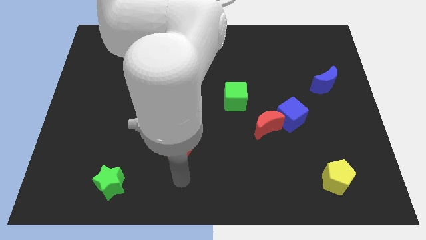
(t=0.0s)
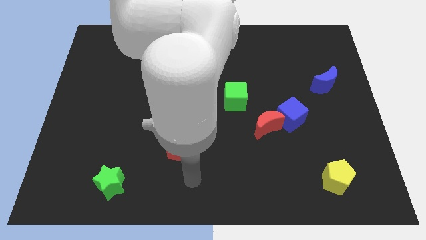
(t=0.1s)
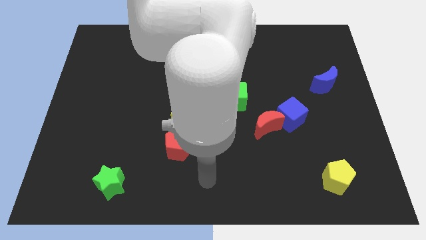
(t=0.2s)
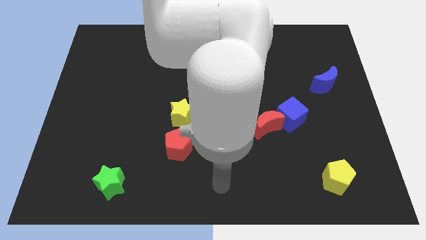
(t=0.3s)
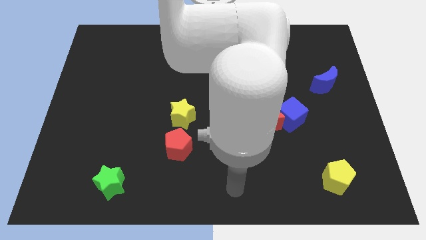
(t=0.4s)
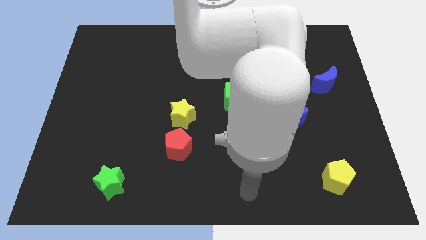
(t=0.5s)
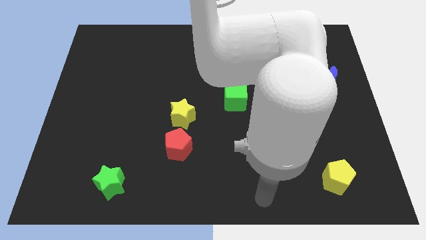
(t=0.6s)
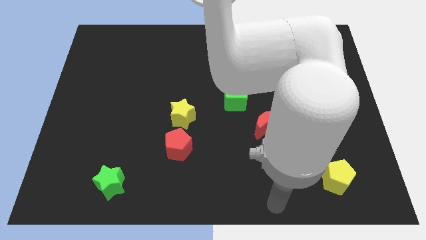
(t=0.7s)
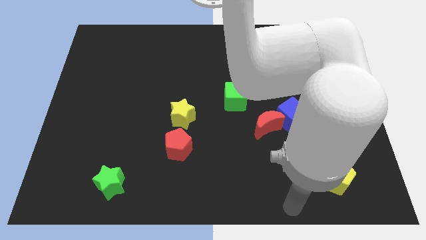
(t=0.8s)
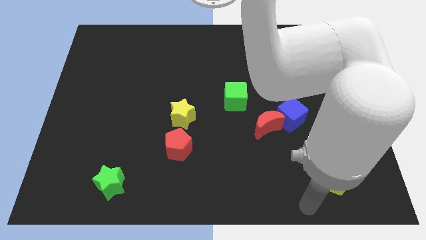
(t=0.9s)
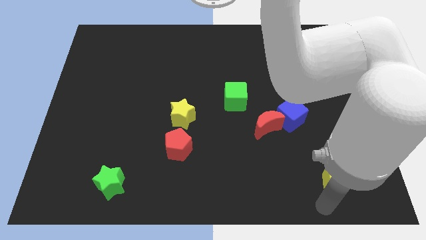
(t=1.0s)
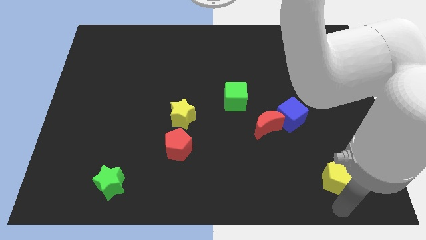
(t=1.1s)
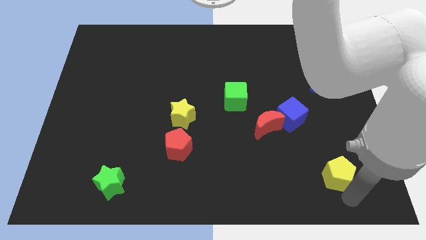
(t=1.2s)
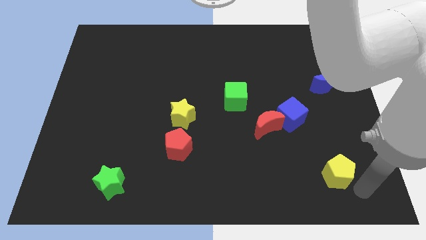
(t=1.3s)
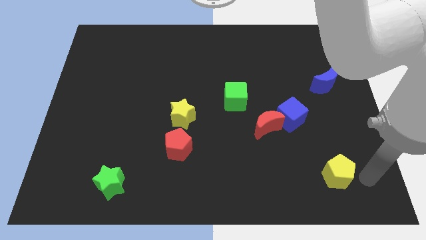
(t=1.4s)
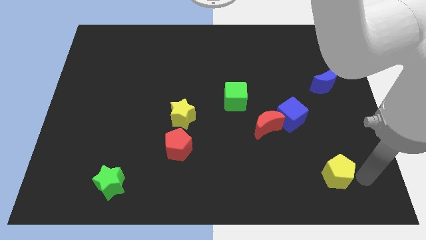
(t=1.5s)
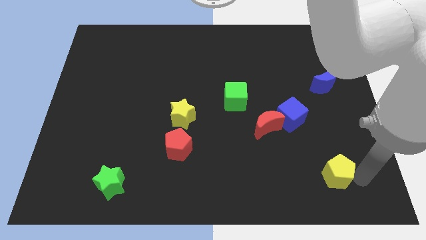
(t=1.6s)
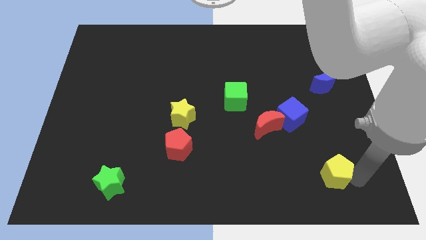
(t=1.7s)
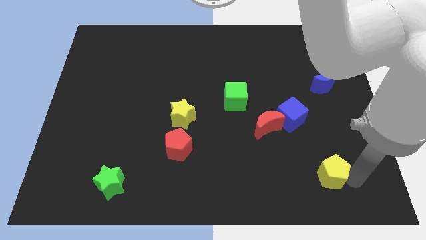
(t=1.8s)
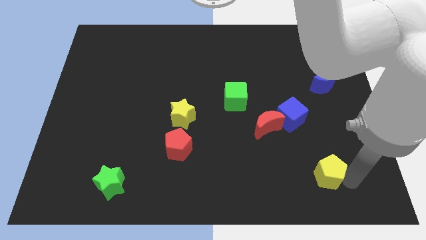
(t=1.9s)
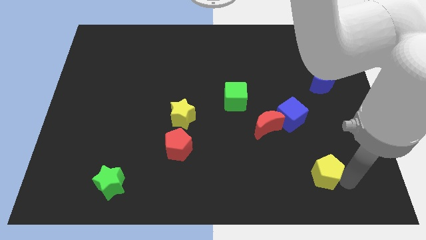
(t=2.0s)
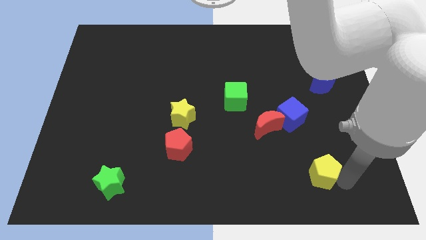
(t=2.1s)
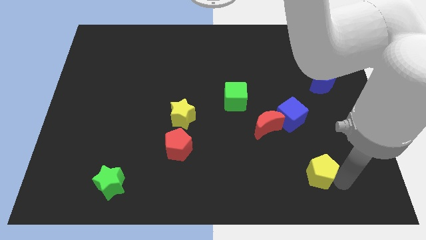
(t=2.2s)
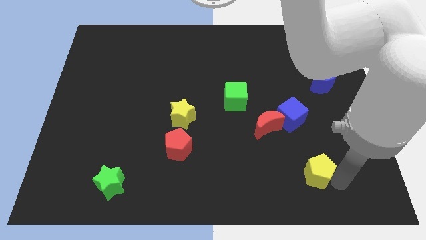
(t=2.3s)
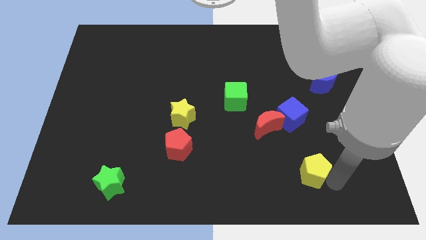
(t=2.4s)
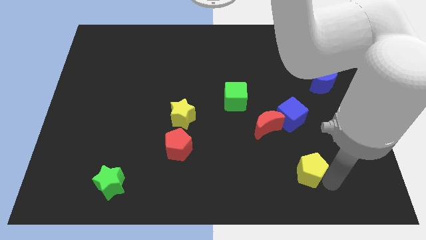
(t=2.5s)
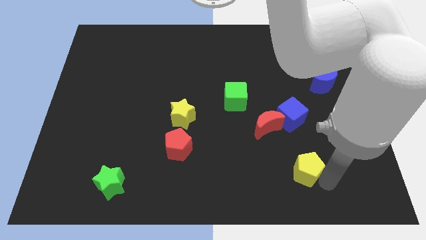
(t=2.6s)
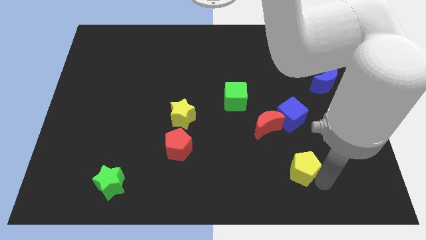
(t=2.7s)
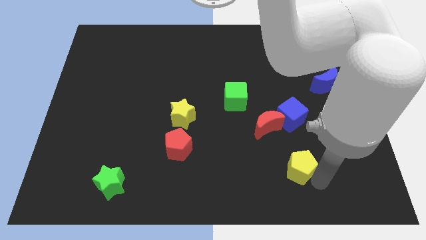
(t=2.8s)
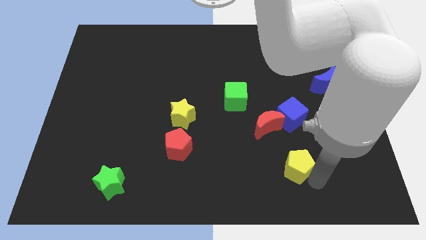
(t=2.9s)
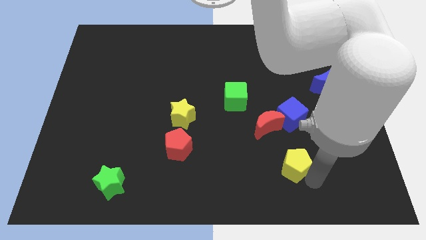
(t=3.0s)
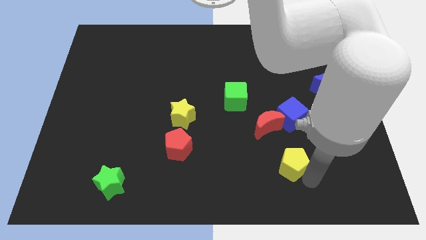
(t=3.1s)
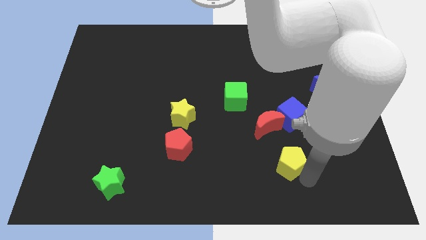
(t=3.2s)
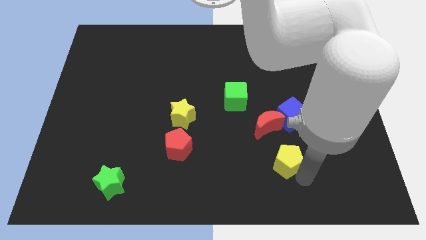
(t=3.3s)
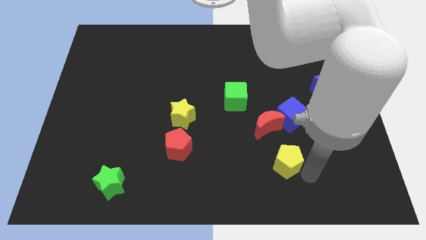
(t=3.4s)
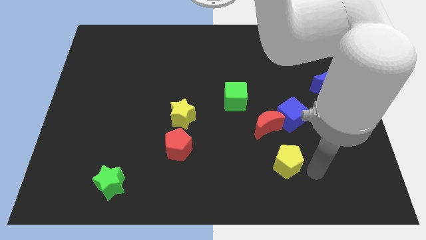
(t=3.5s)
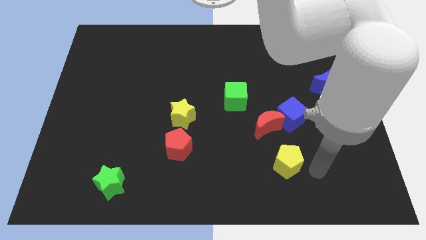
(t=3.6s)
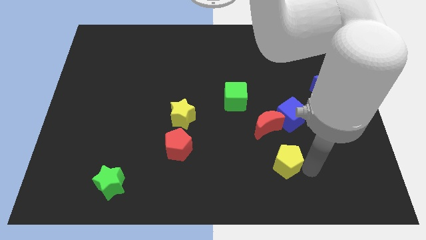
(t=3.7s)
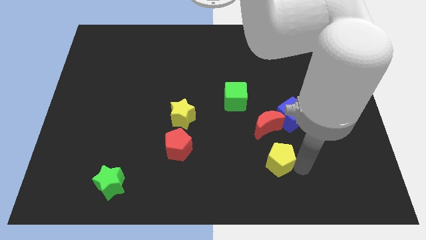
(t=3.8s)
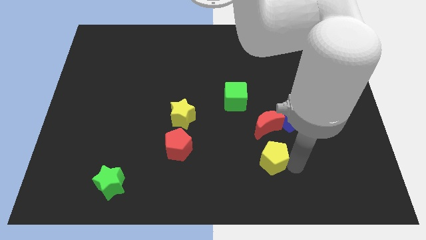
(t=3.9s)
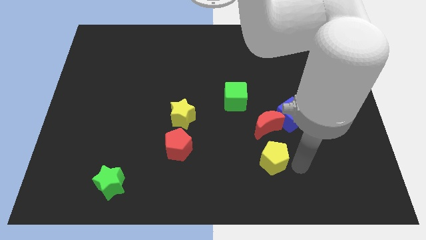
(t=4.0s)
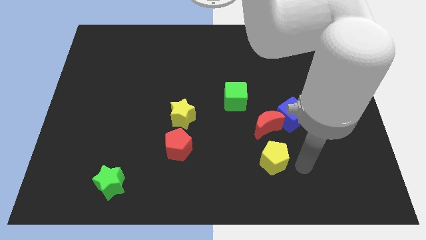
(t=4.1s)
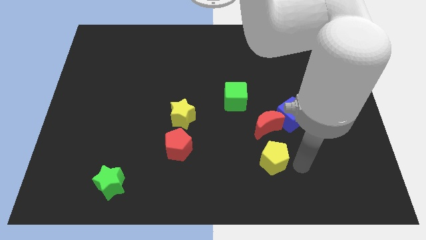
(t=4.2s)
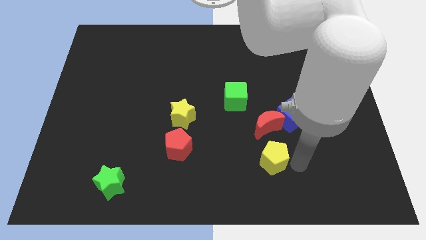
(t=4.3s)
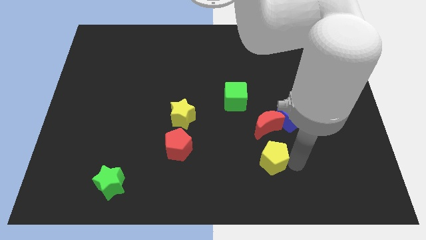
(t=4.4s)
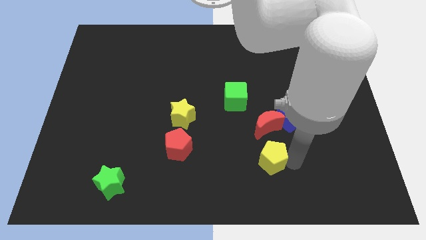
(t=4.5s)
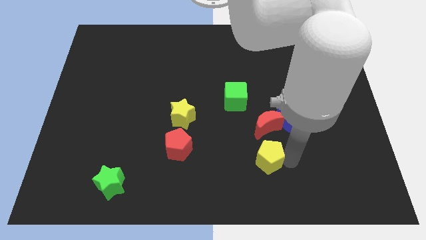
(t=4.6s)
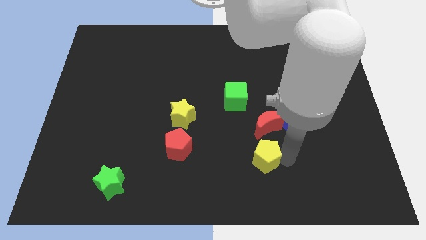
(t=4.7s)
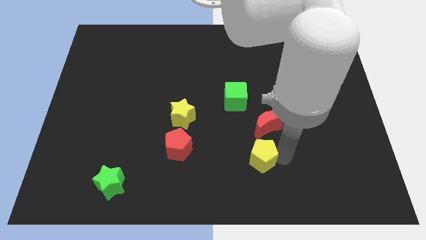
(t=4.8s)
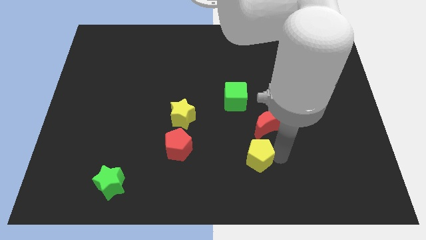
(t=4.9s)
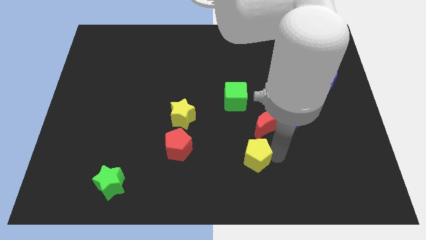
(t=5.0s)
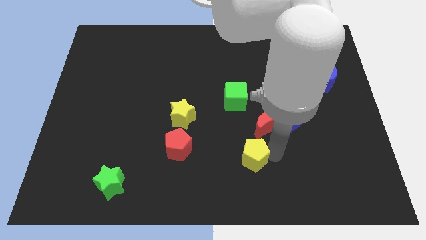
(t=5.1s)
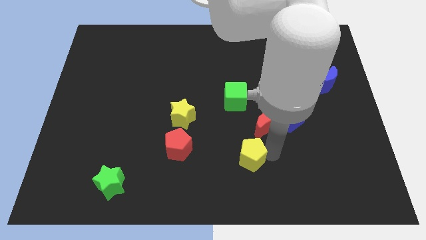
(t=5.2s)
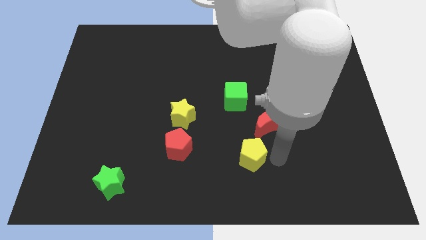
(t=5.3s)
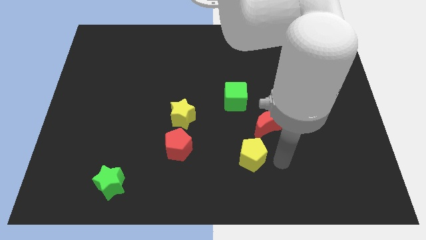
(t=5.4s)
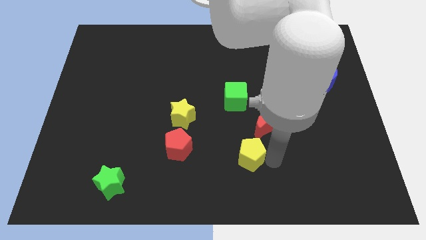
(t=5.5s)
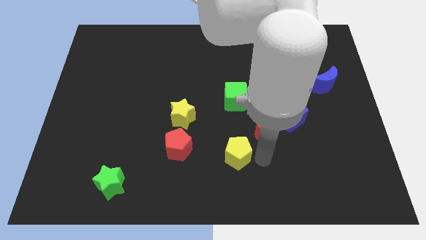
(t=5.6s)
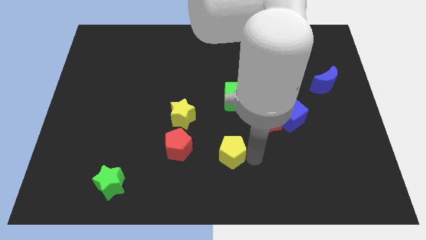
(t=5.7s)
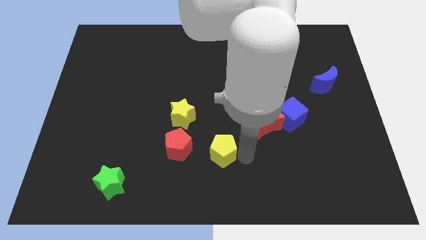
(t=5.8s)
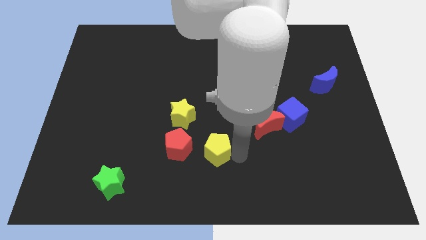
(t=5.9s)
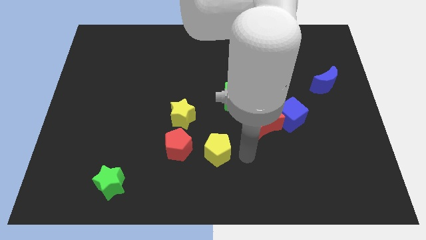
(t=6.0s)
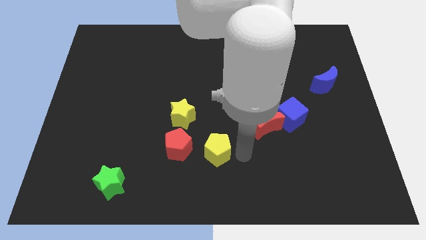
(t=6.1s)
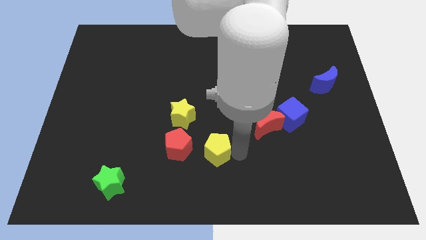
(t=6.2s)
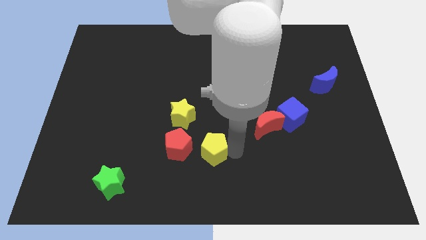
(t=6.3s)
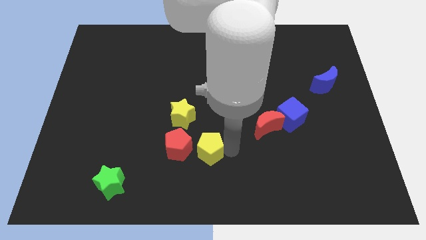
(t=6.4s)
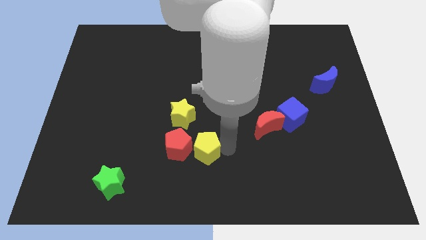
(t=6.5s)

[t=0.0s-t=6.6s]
put the yellow pentagon next to the red pentagon
